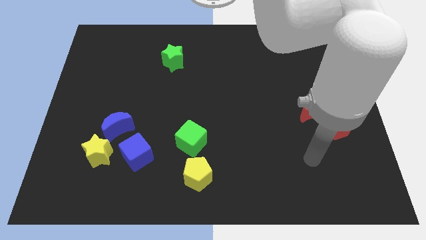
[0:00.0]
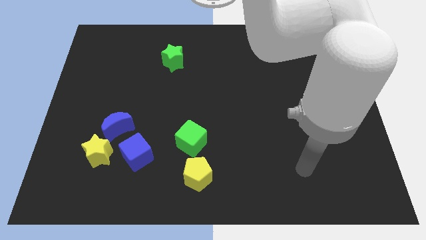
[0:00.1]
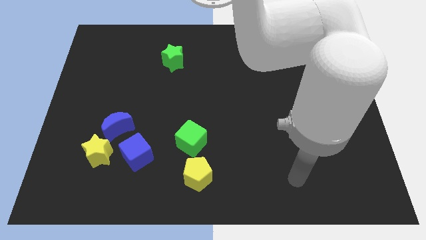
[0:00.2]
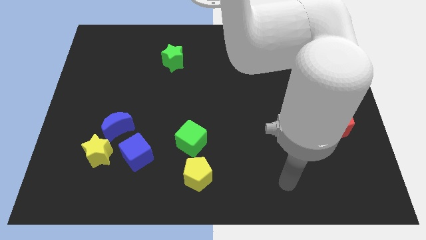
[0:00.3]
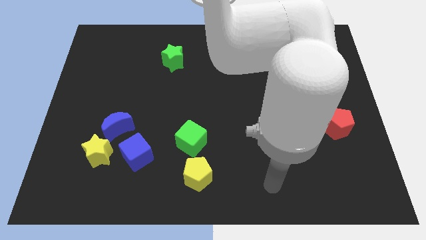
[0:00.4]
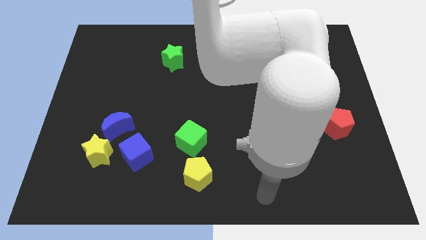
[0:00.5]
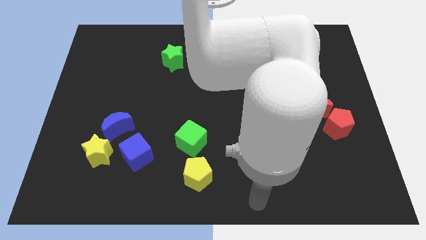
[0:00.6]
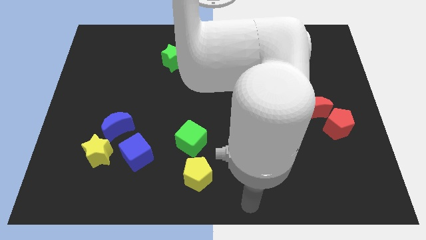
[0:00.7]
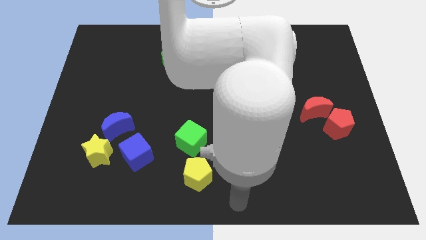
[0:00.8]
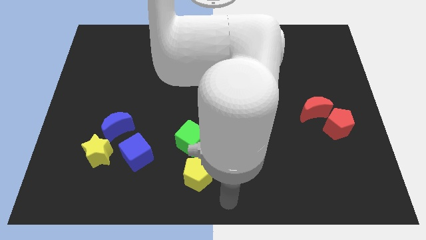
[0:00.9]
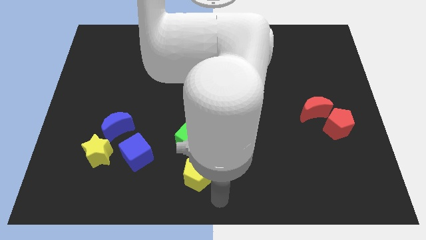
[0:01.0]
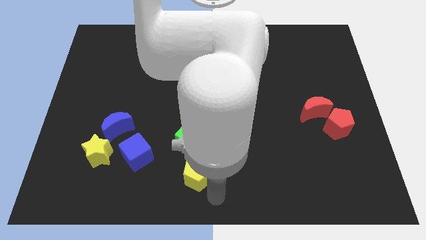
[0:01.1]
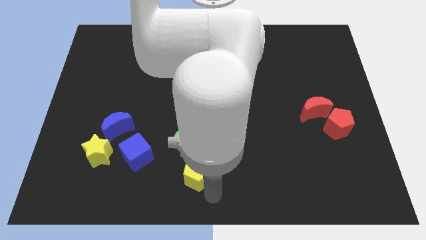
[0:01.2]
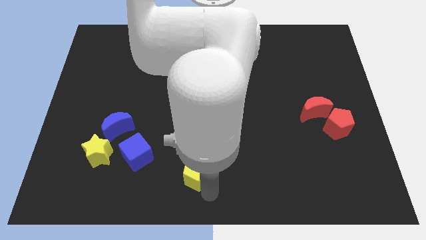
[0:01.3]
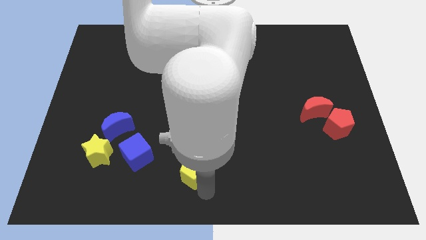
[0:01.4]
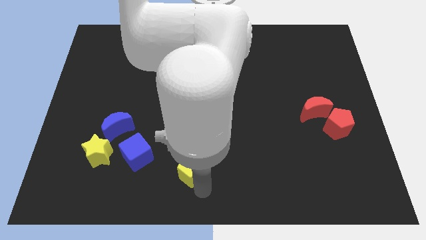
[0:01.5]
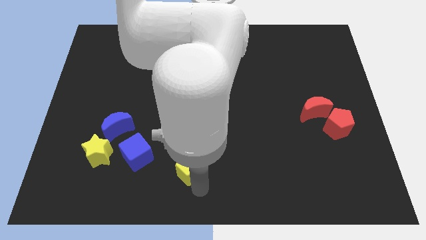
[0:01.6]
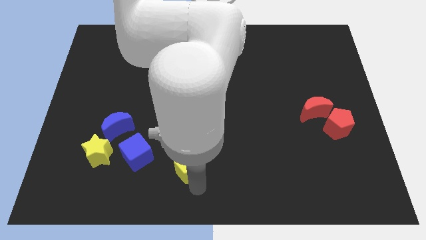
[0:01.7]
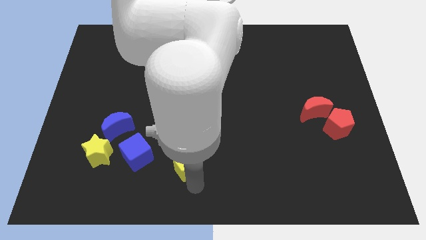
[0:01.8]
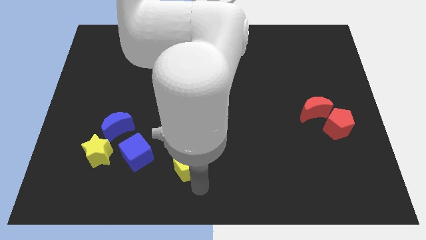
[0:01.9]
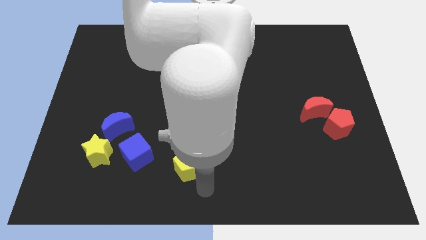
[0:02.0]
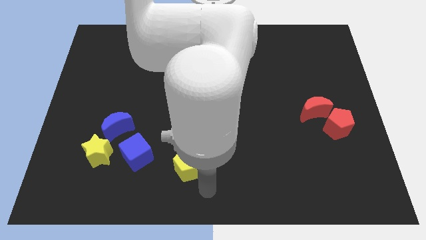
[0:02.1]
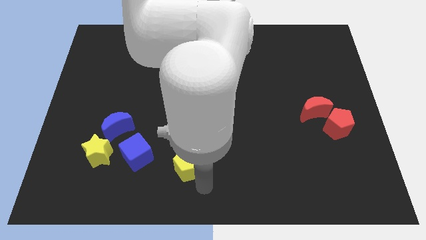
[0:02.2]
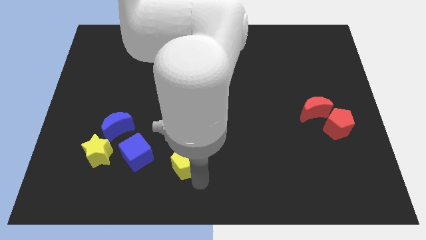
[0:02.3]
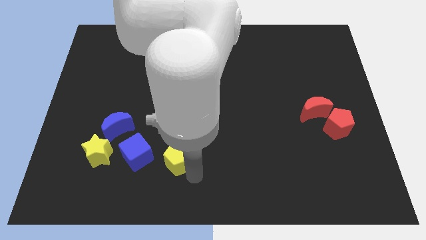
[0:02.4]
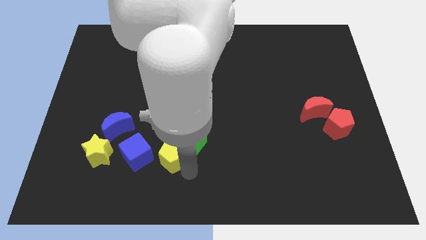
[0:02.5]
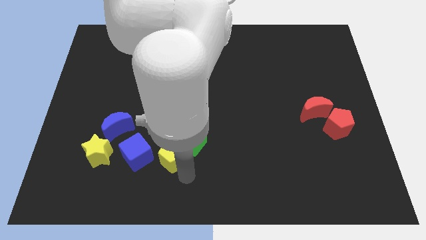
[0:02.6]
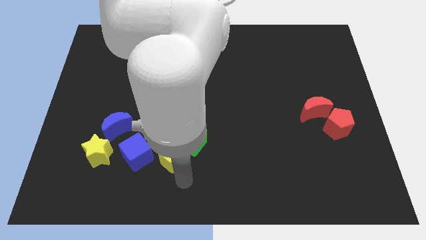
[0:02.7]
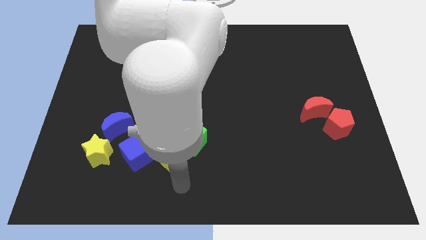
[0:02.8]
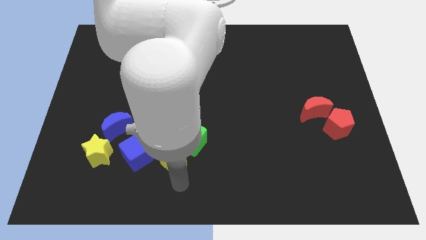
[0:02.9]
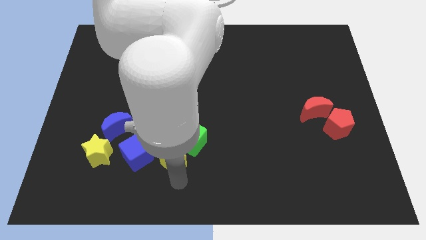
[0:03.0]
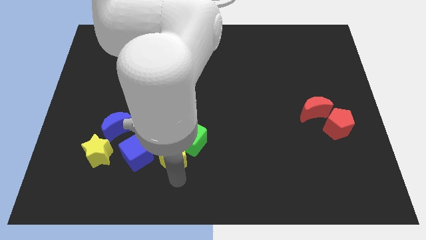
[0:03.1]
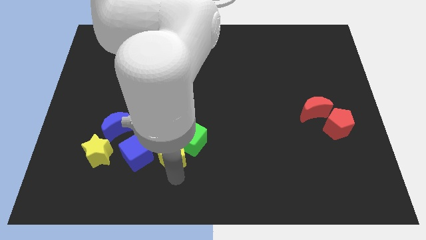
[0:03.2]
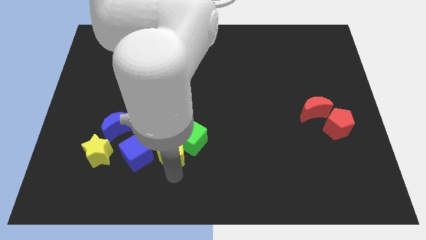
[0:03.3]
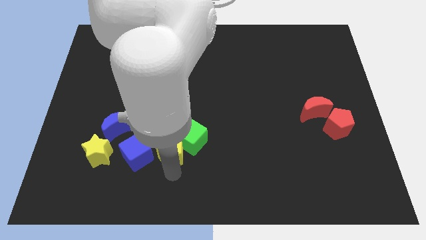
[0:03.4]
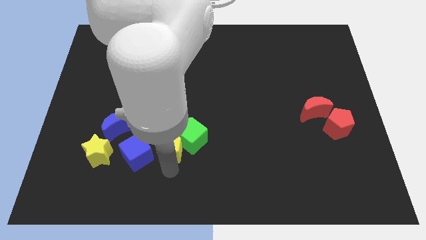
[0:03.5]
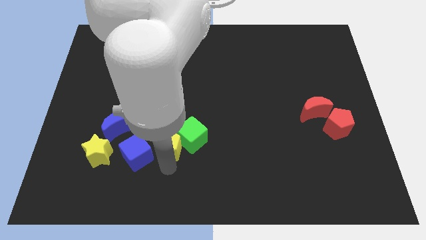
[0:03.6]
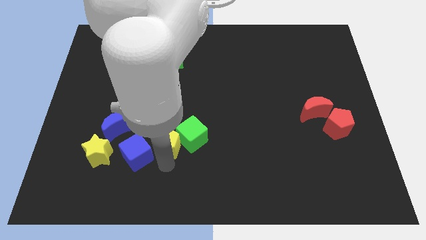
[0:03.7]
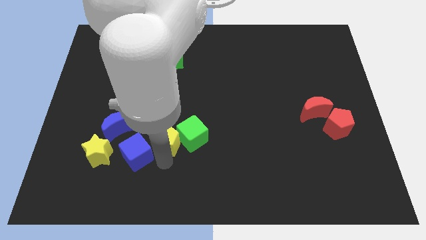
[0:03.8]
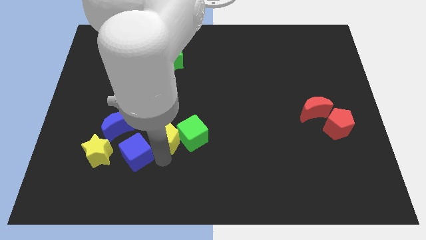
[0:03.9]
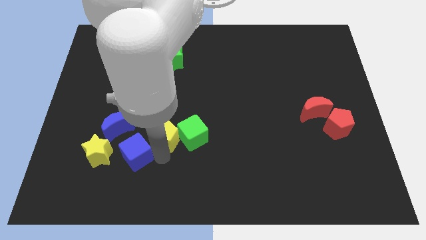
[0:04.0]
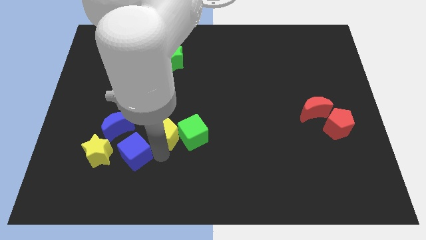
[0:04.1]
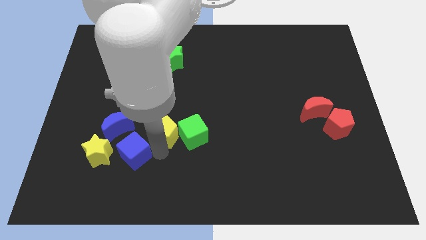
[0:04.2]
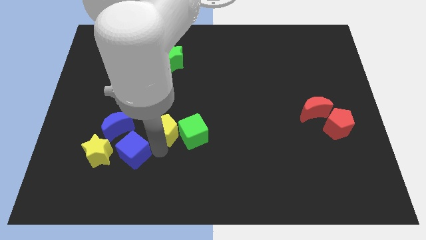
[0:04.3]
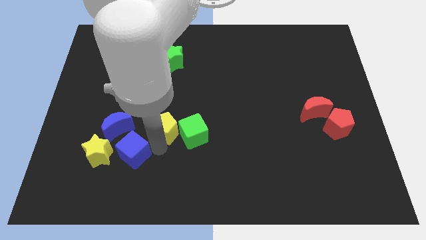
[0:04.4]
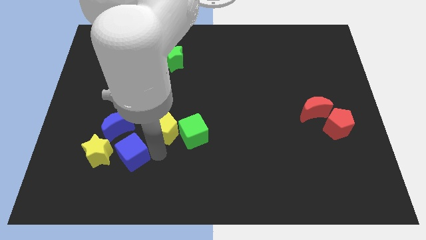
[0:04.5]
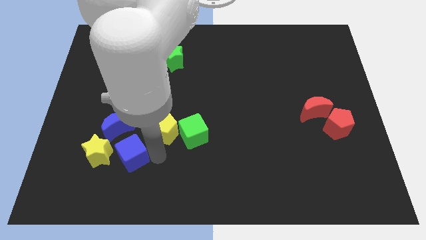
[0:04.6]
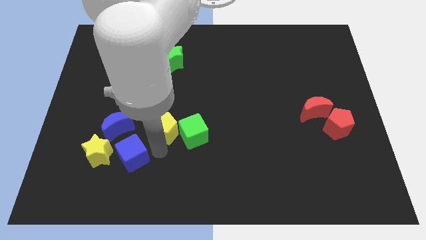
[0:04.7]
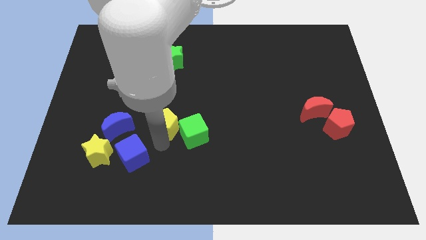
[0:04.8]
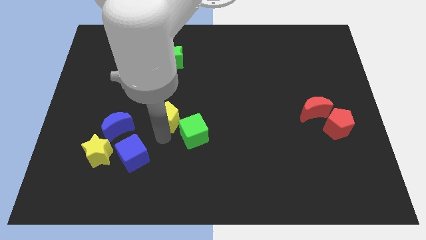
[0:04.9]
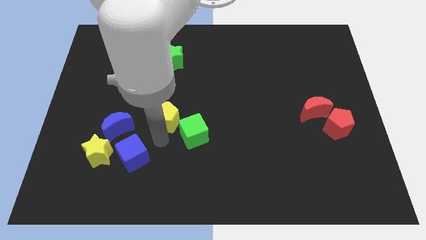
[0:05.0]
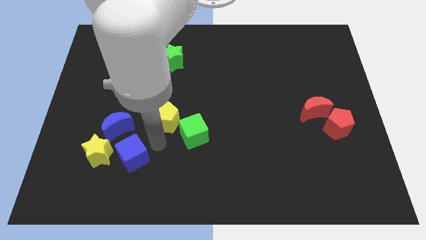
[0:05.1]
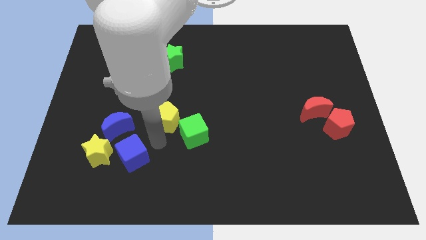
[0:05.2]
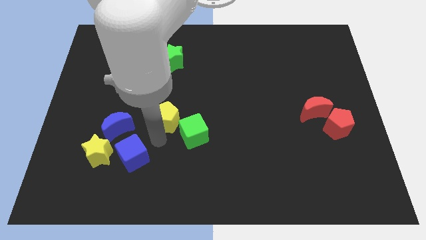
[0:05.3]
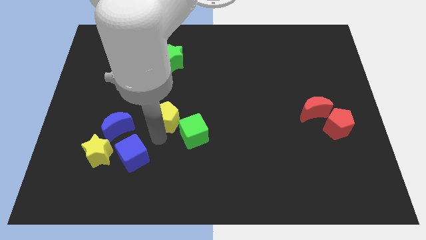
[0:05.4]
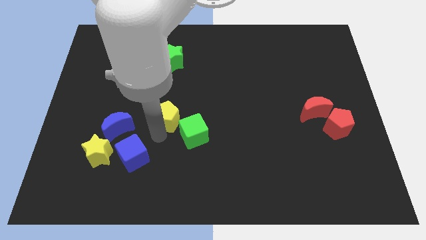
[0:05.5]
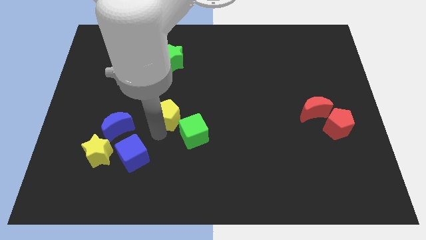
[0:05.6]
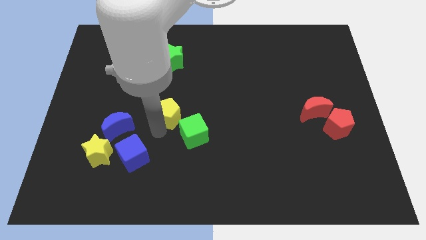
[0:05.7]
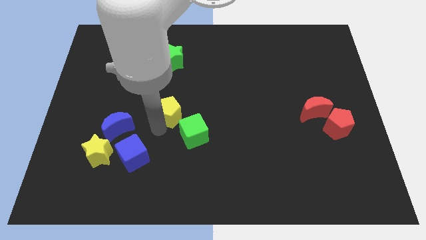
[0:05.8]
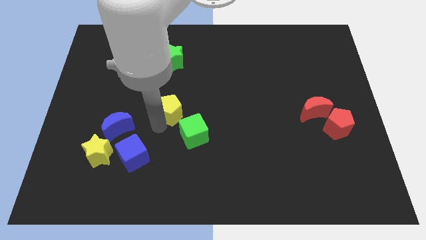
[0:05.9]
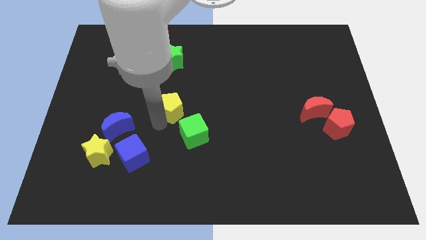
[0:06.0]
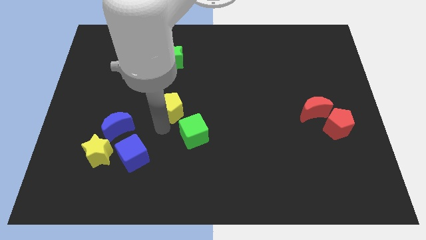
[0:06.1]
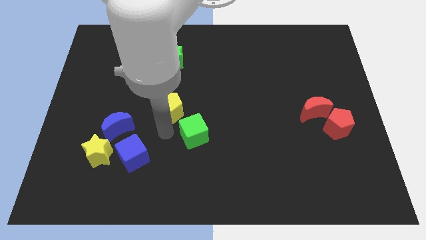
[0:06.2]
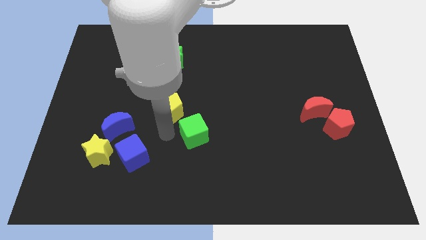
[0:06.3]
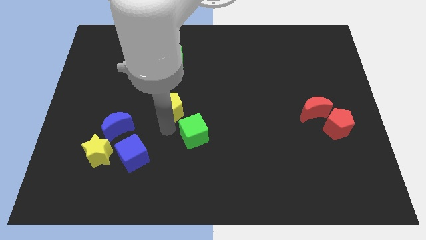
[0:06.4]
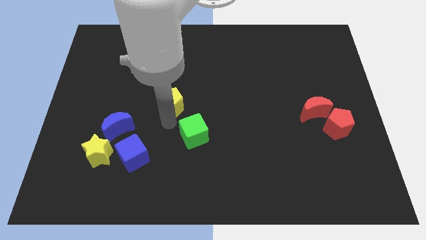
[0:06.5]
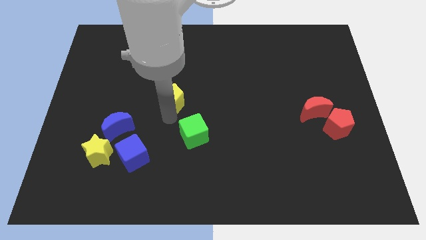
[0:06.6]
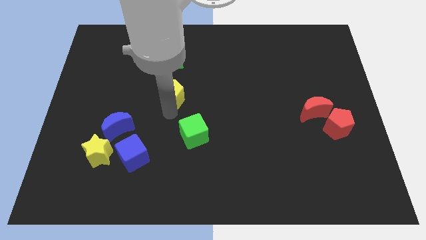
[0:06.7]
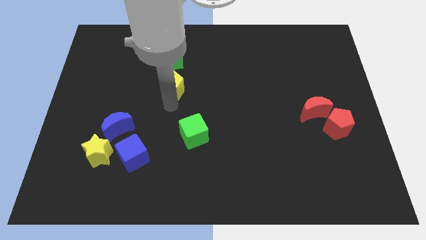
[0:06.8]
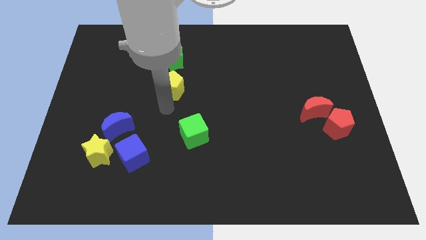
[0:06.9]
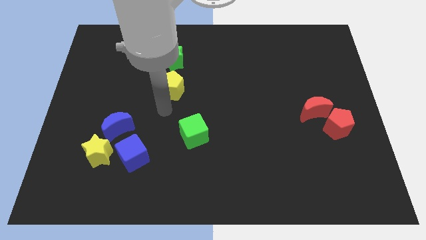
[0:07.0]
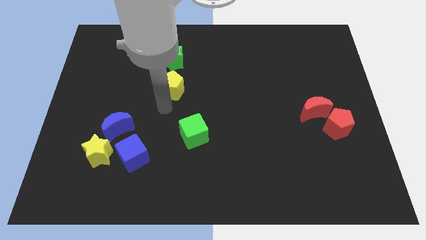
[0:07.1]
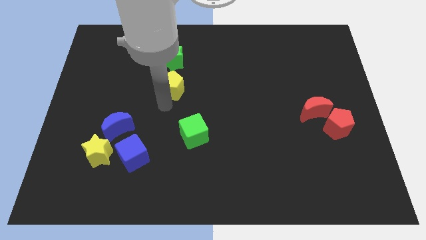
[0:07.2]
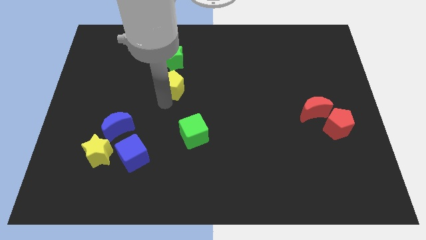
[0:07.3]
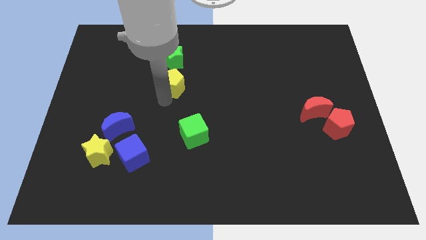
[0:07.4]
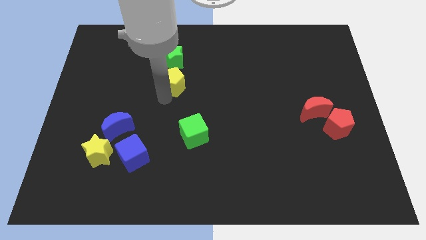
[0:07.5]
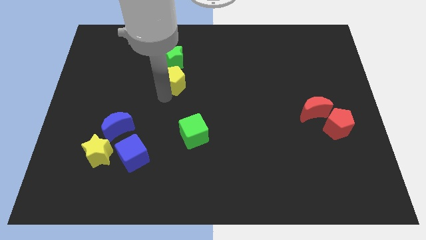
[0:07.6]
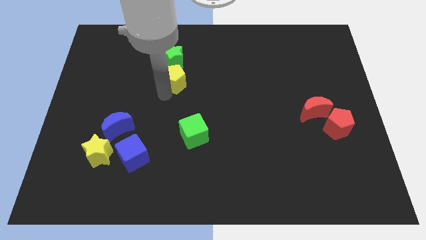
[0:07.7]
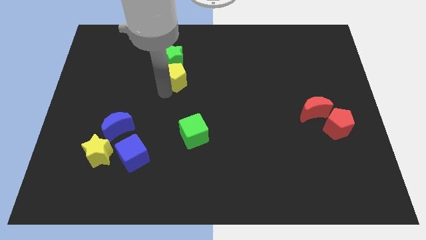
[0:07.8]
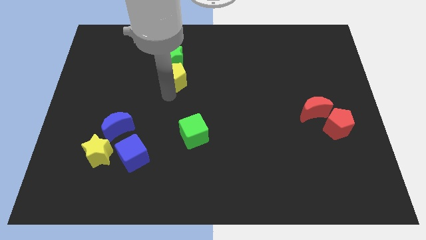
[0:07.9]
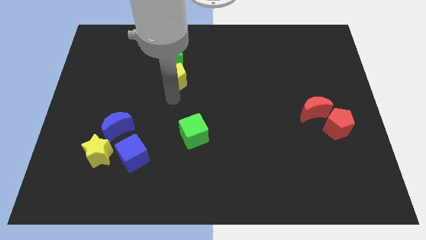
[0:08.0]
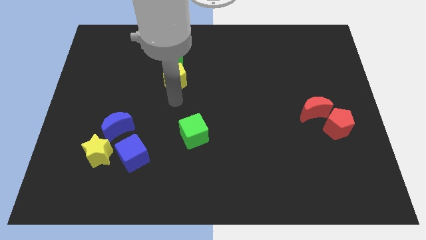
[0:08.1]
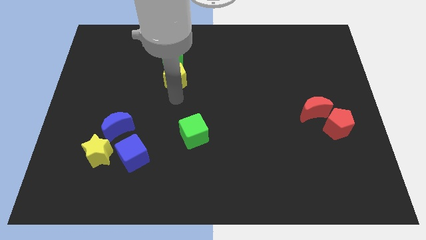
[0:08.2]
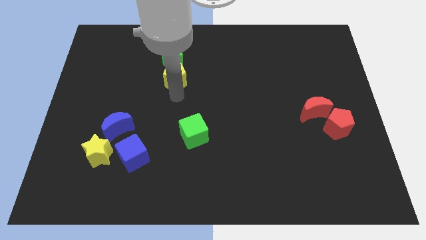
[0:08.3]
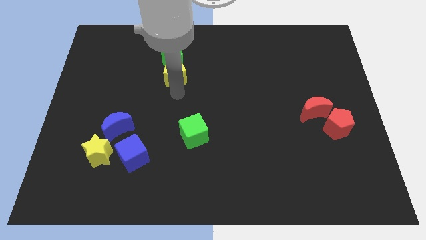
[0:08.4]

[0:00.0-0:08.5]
move the yellow pentagon next to the green star
